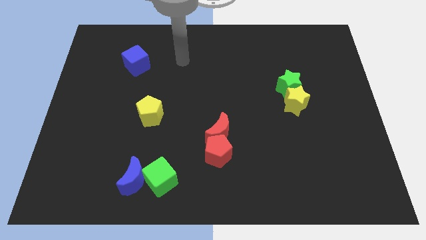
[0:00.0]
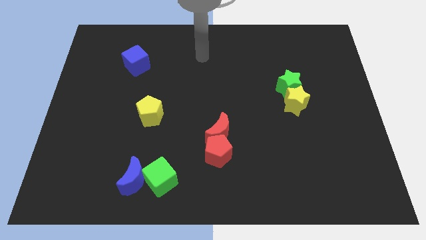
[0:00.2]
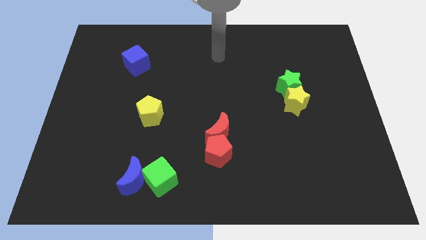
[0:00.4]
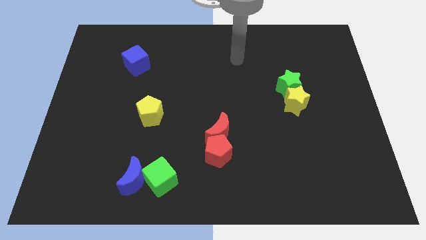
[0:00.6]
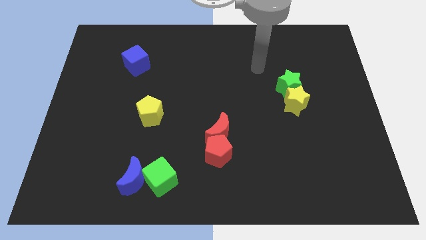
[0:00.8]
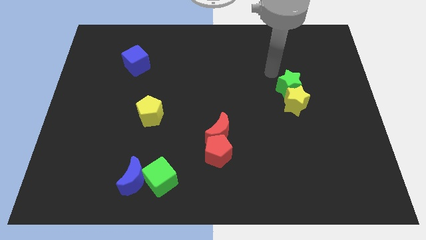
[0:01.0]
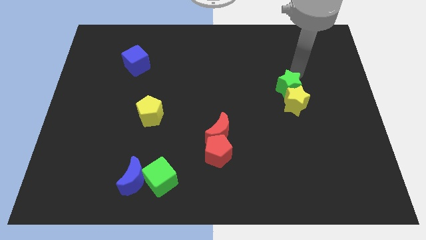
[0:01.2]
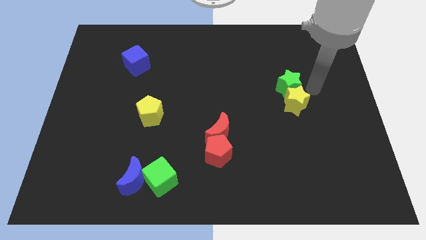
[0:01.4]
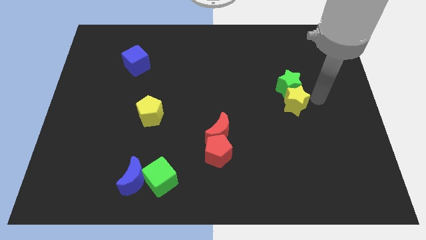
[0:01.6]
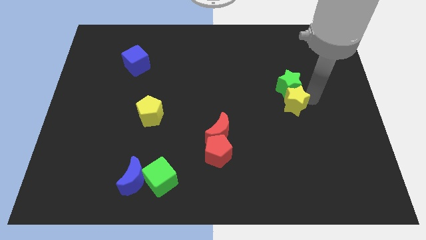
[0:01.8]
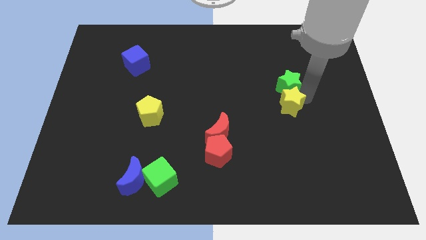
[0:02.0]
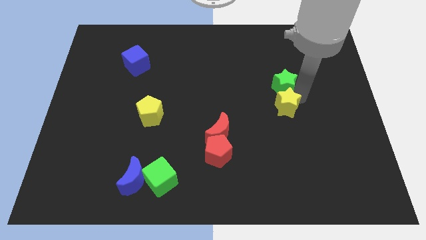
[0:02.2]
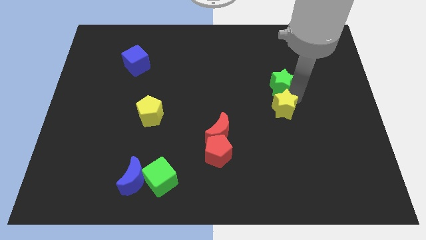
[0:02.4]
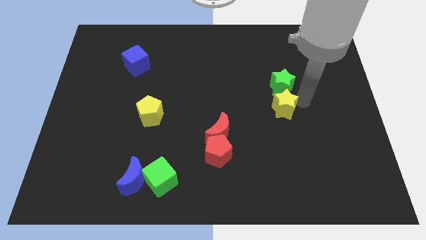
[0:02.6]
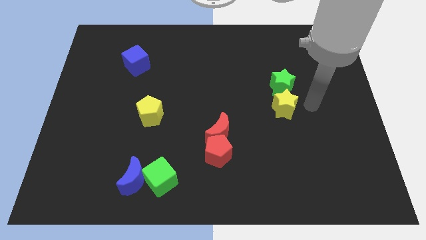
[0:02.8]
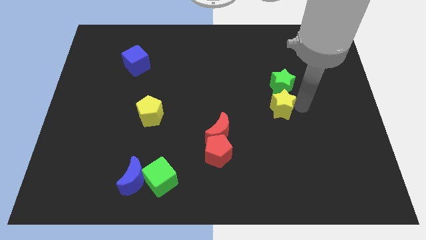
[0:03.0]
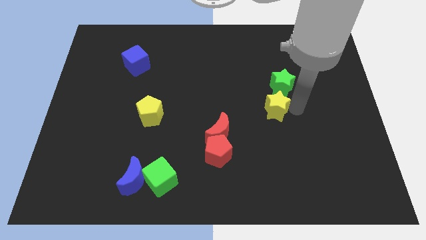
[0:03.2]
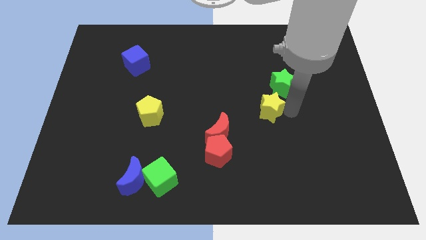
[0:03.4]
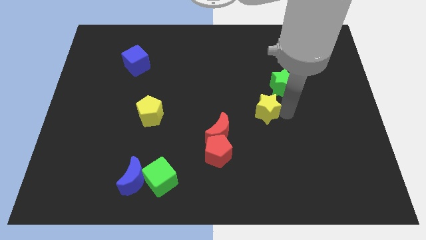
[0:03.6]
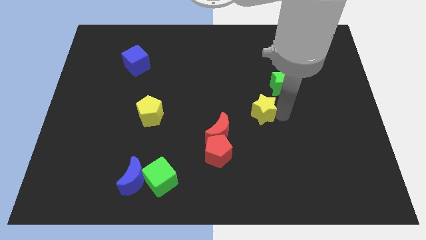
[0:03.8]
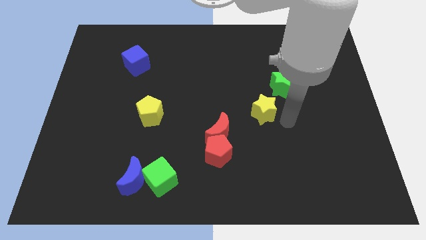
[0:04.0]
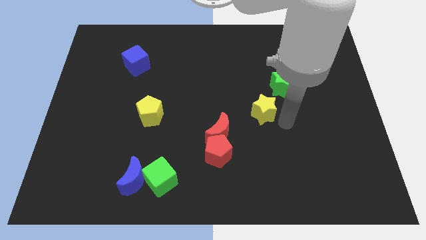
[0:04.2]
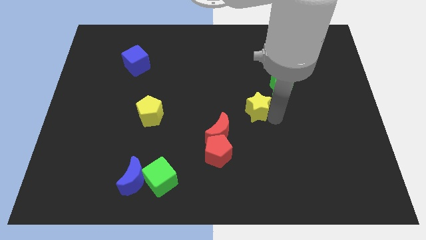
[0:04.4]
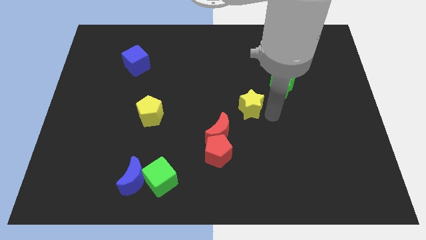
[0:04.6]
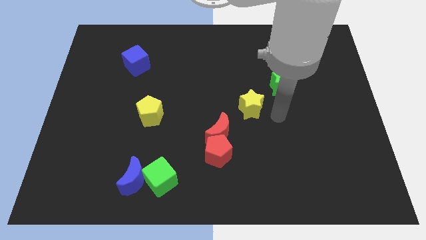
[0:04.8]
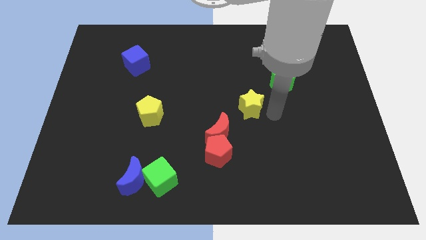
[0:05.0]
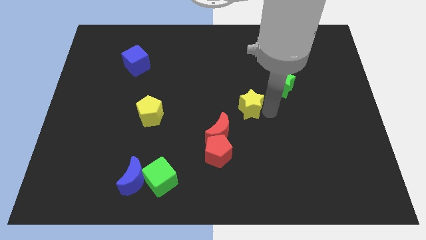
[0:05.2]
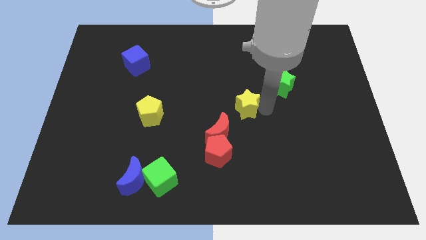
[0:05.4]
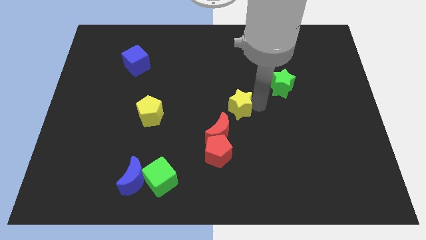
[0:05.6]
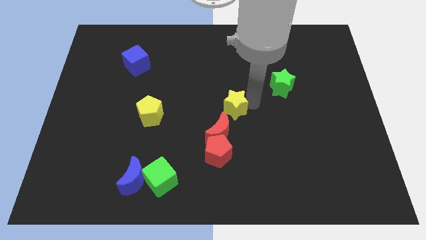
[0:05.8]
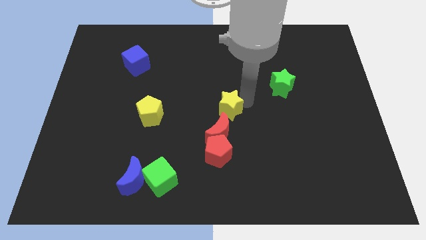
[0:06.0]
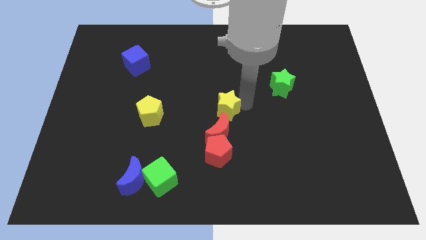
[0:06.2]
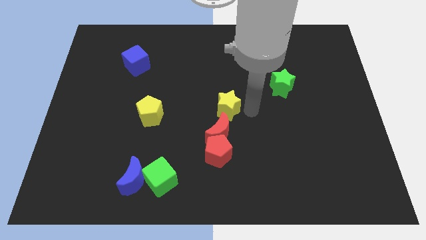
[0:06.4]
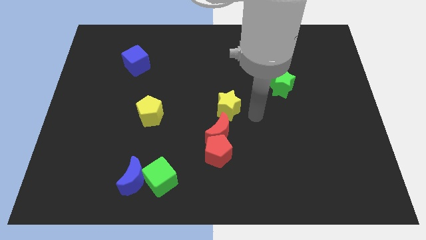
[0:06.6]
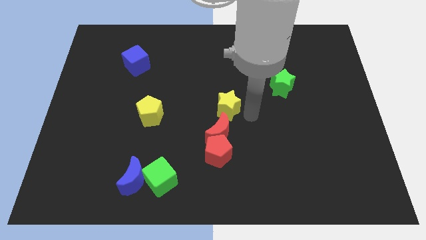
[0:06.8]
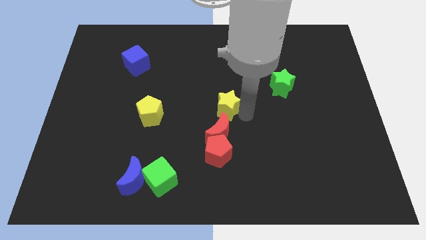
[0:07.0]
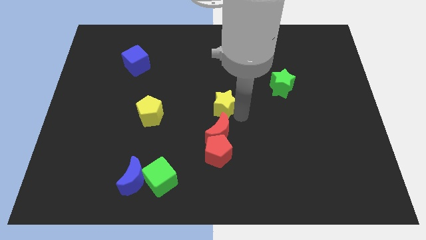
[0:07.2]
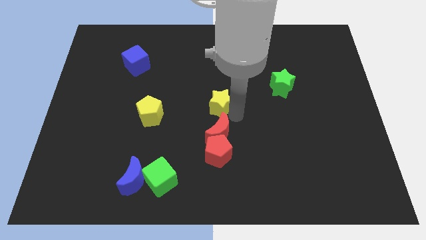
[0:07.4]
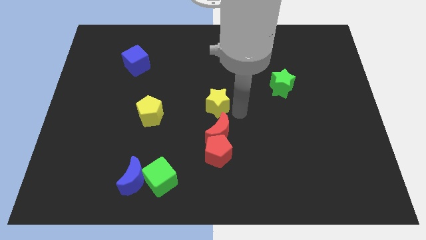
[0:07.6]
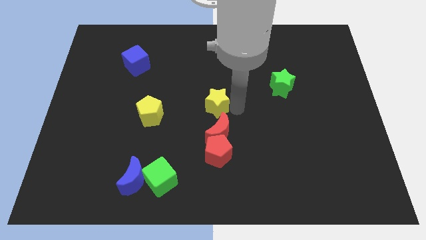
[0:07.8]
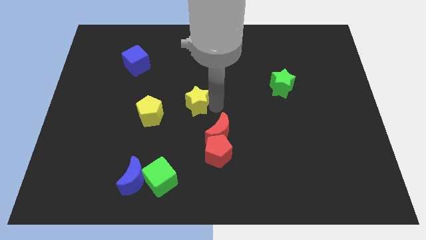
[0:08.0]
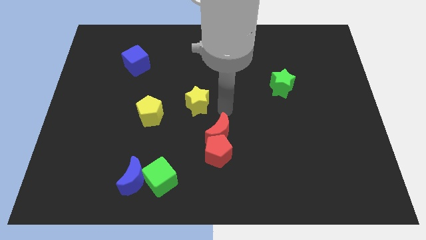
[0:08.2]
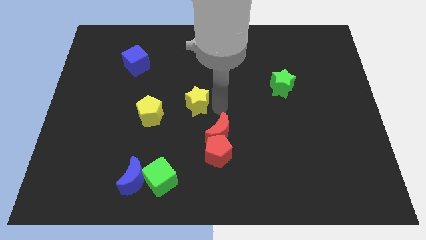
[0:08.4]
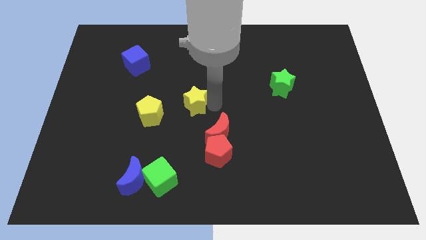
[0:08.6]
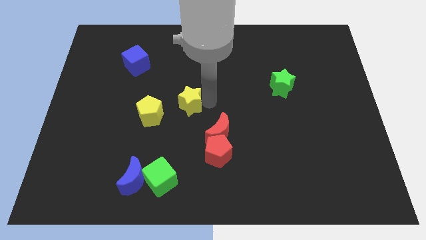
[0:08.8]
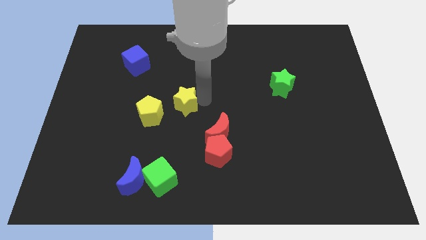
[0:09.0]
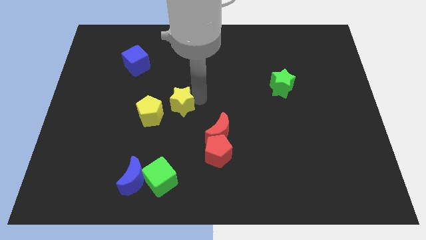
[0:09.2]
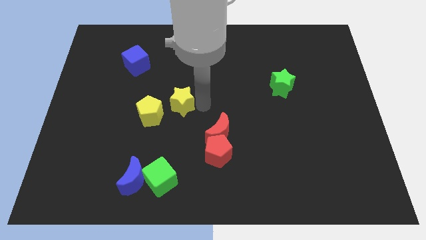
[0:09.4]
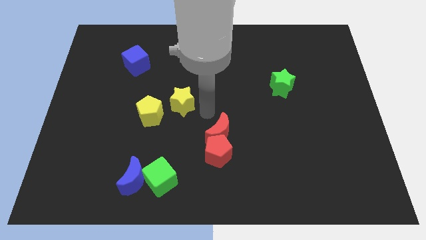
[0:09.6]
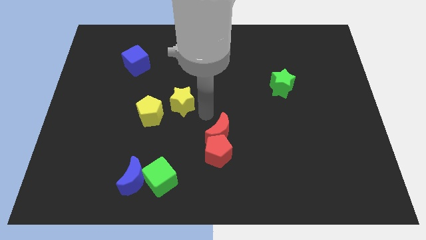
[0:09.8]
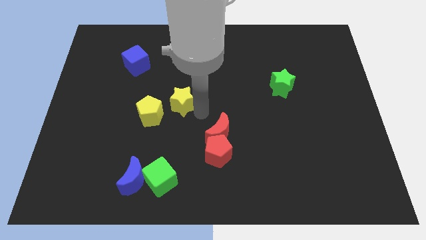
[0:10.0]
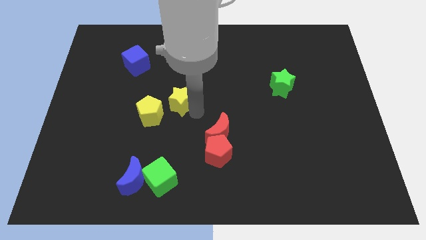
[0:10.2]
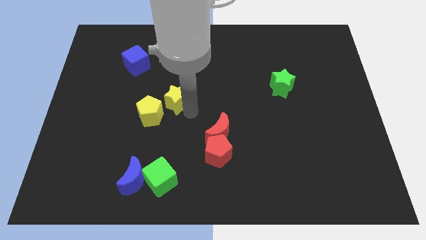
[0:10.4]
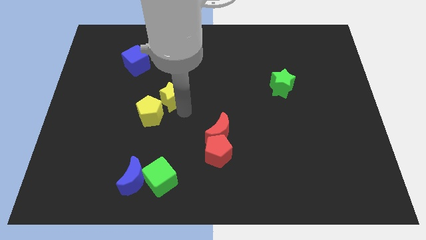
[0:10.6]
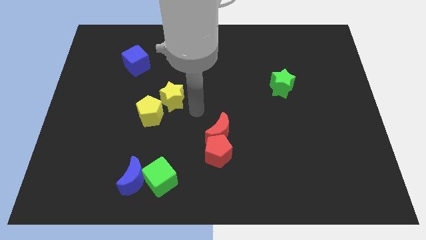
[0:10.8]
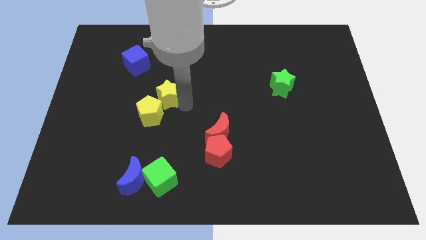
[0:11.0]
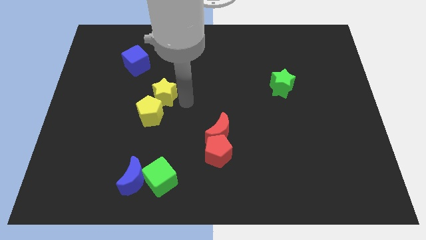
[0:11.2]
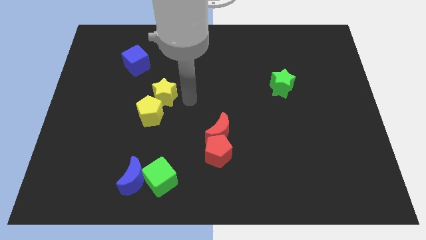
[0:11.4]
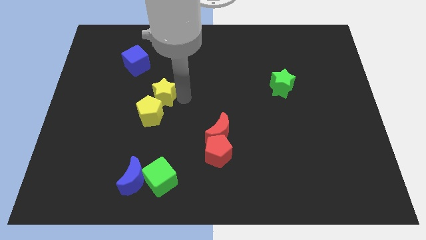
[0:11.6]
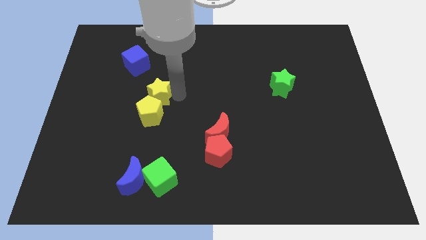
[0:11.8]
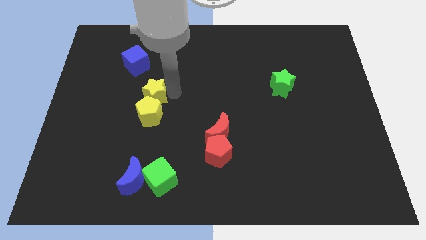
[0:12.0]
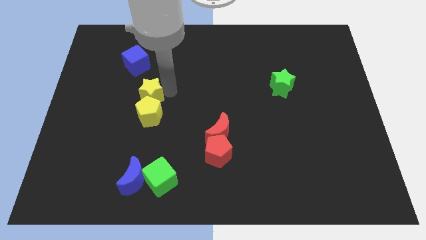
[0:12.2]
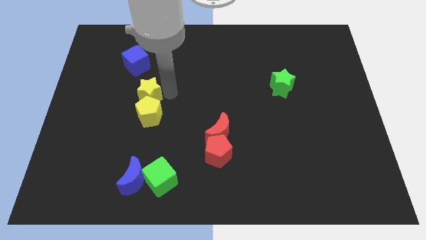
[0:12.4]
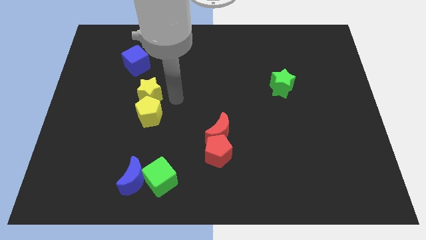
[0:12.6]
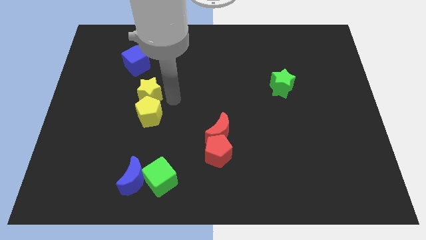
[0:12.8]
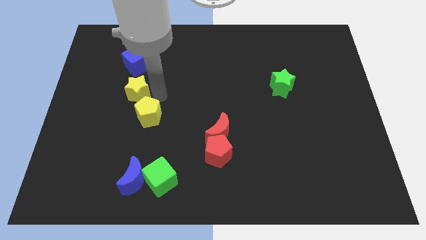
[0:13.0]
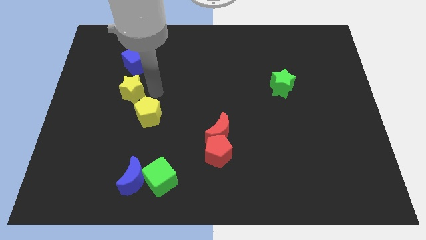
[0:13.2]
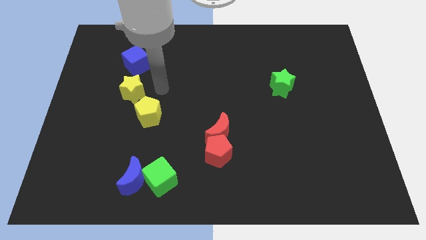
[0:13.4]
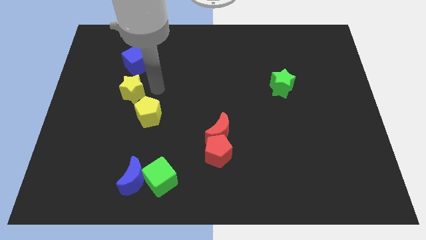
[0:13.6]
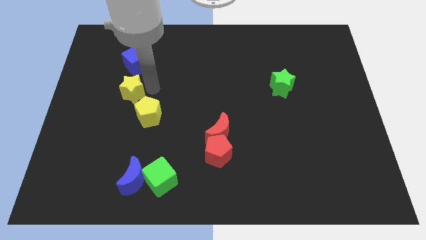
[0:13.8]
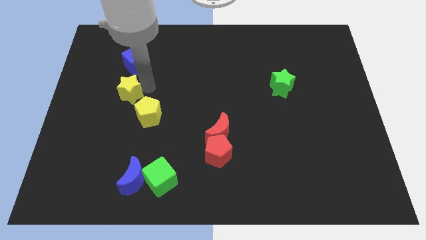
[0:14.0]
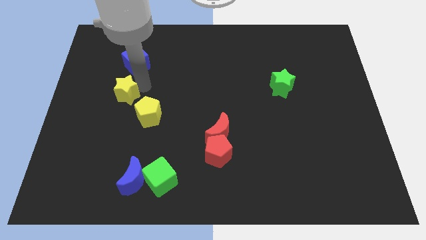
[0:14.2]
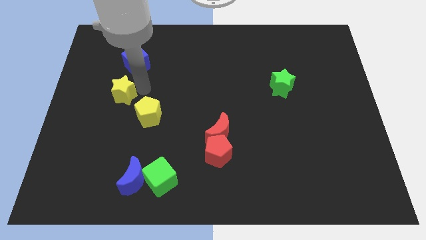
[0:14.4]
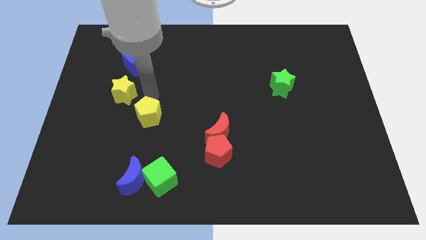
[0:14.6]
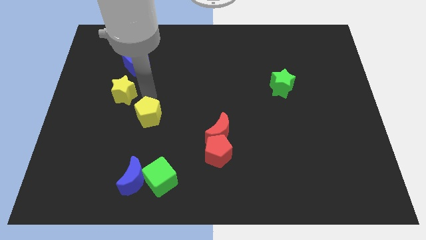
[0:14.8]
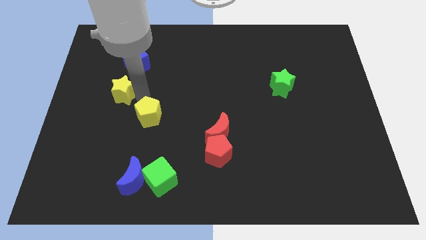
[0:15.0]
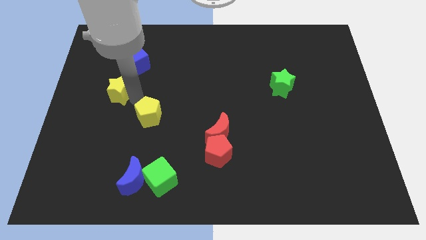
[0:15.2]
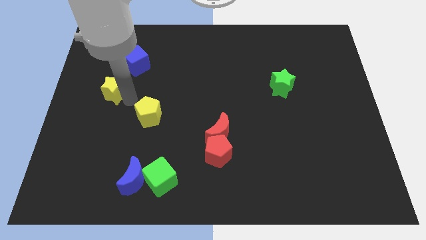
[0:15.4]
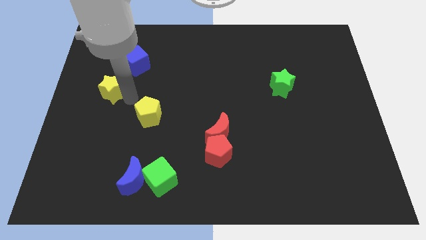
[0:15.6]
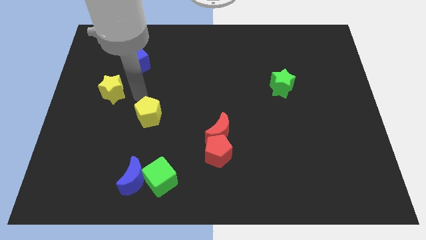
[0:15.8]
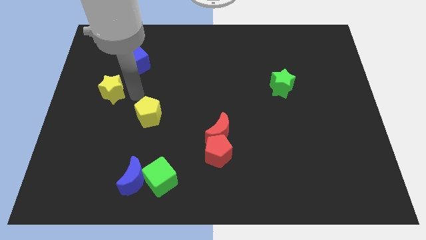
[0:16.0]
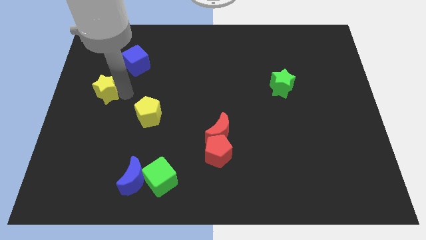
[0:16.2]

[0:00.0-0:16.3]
push the yellow star to the left side of the board
